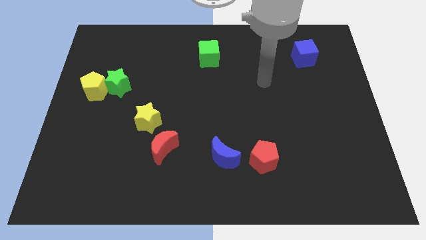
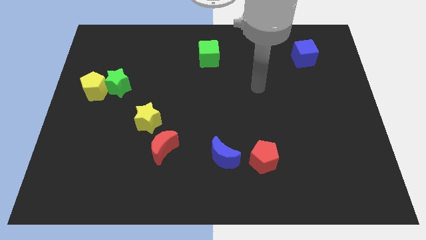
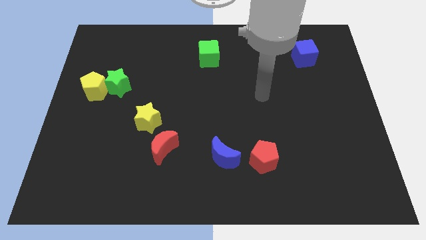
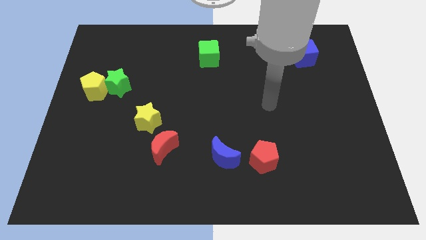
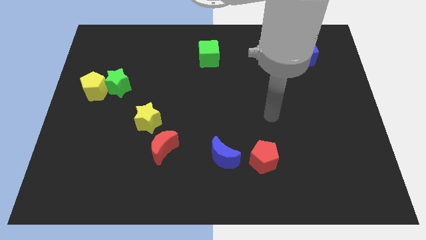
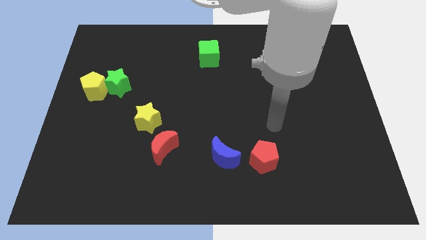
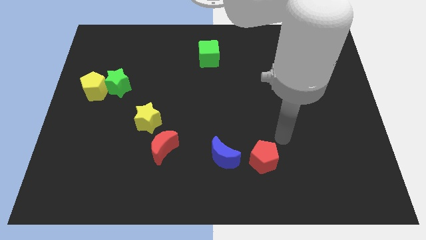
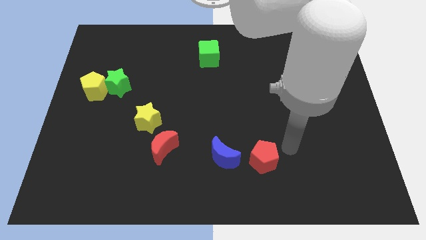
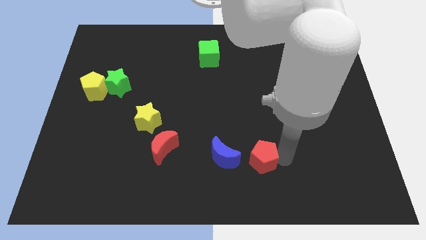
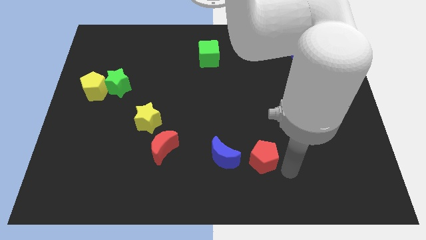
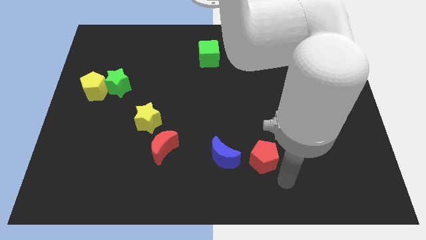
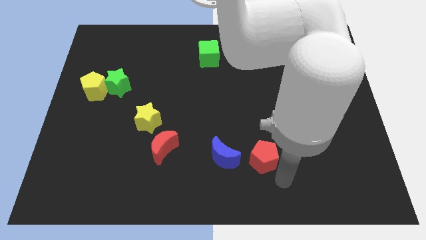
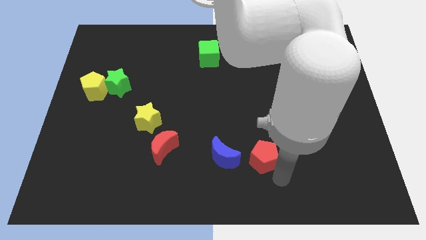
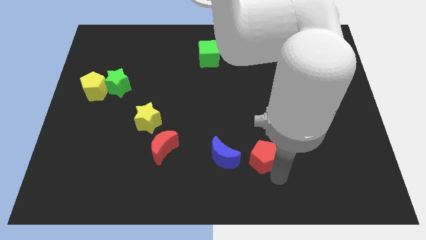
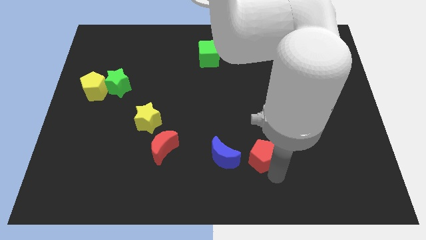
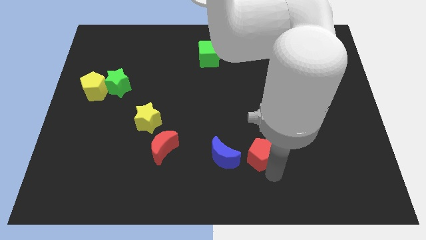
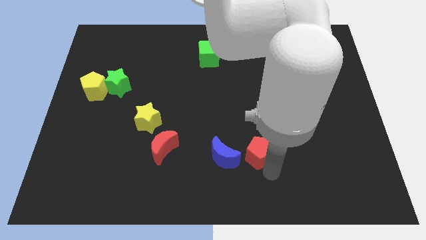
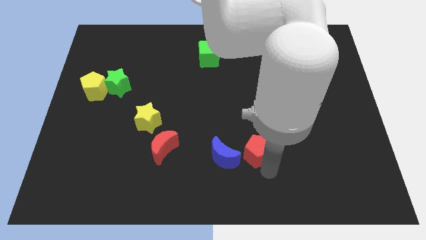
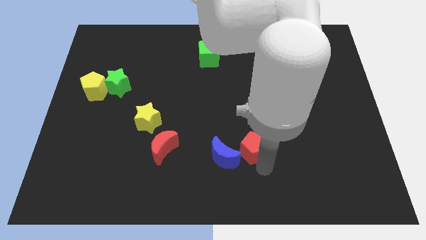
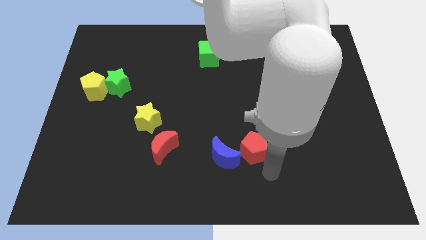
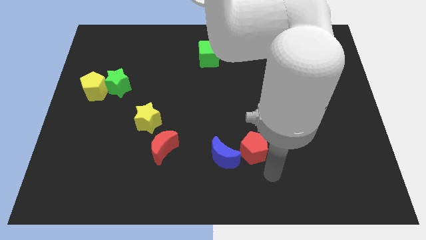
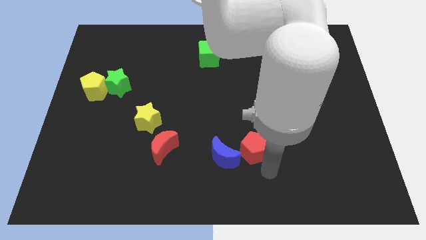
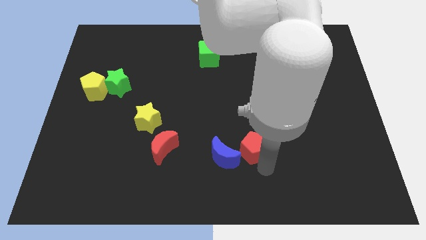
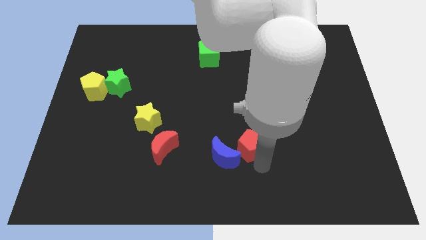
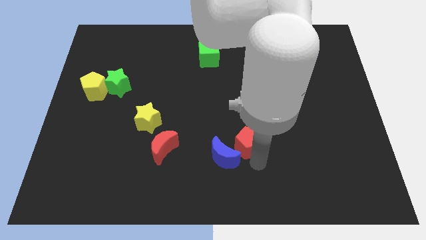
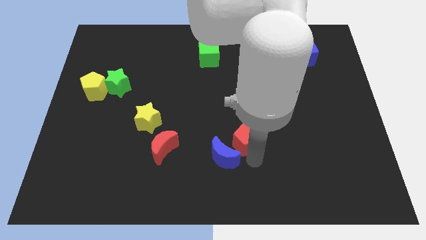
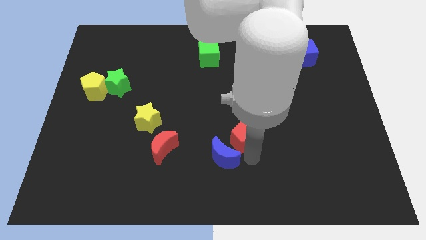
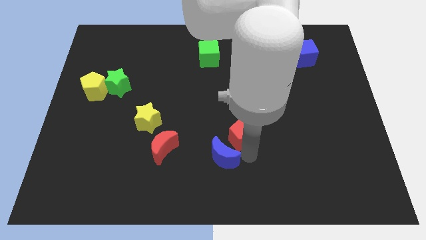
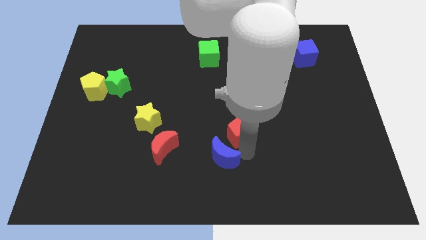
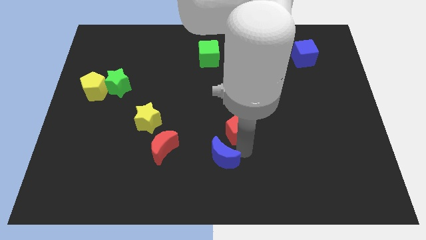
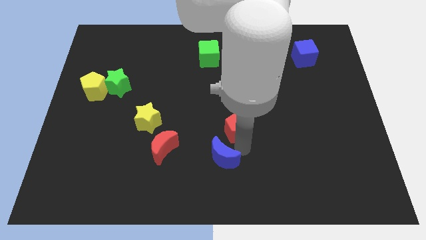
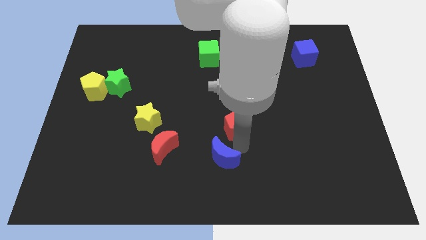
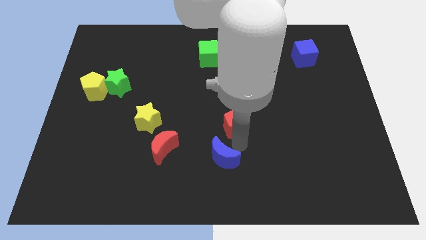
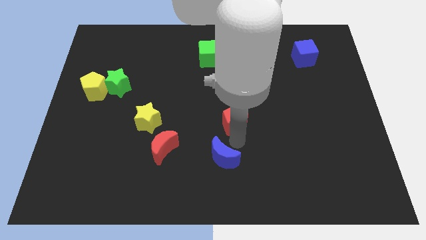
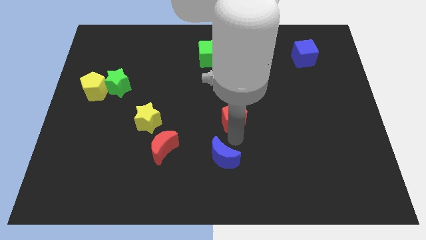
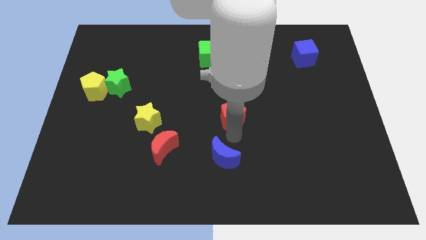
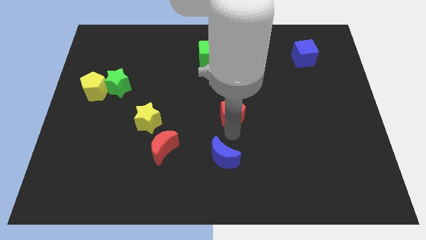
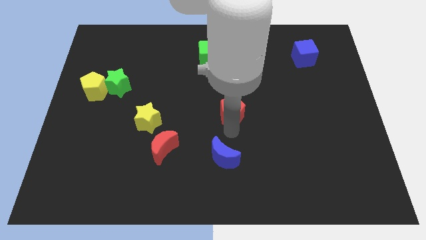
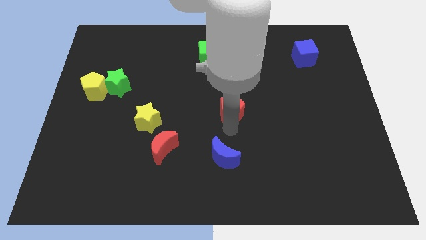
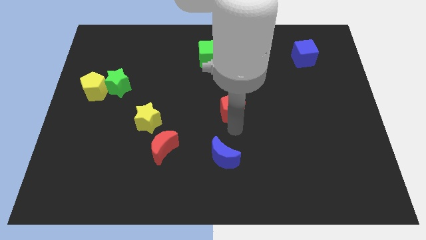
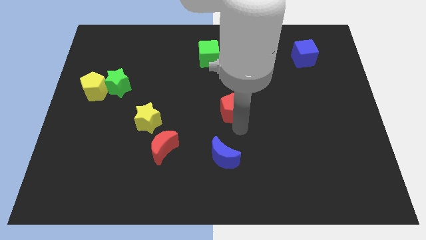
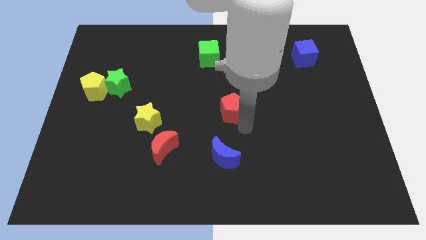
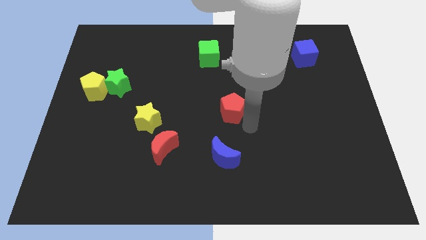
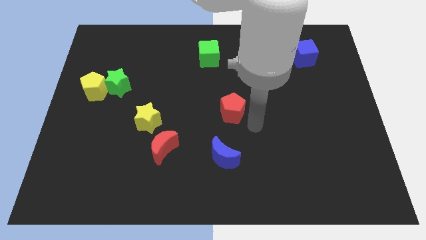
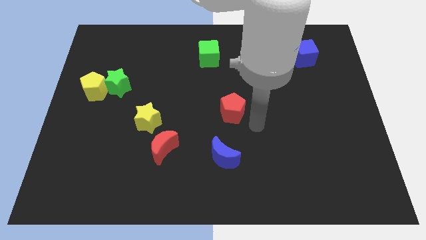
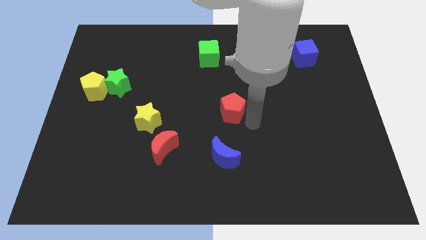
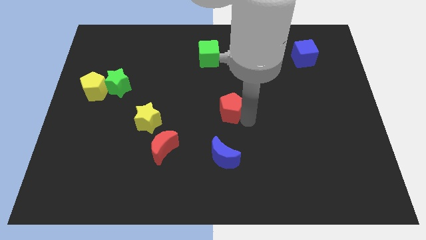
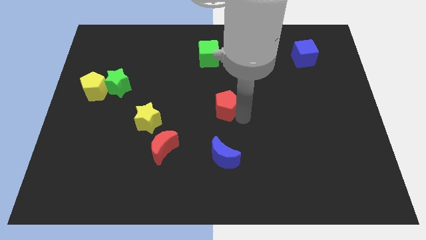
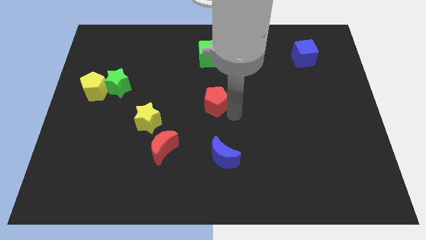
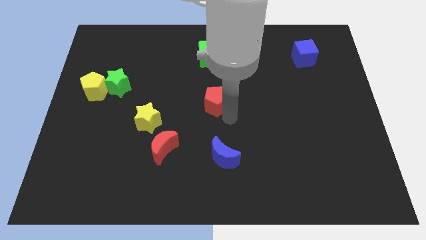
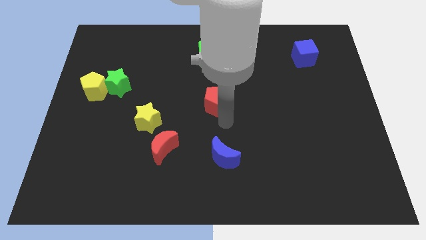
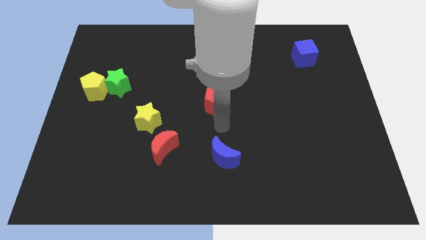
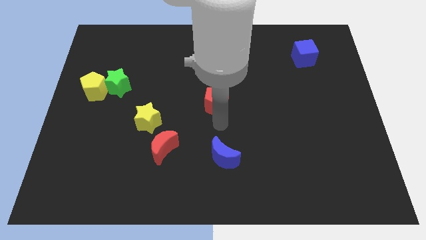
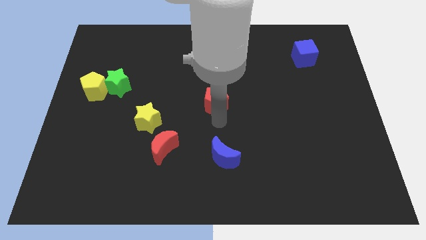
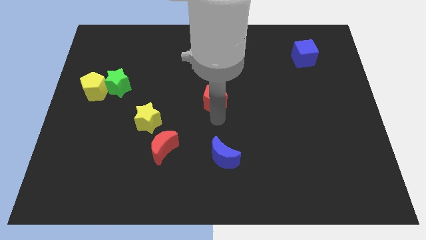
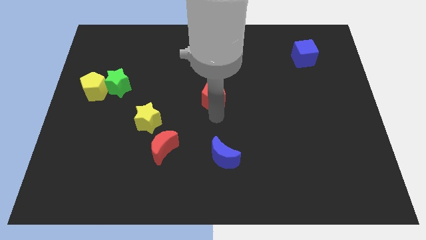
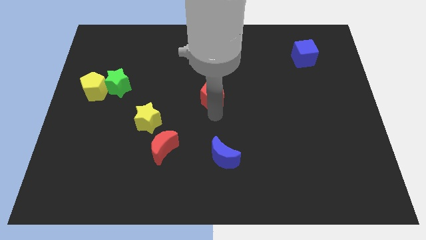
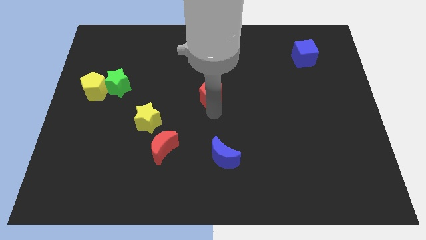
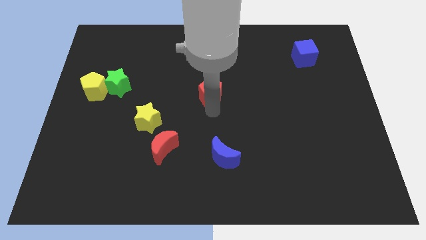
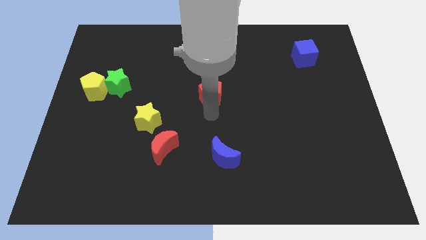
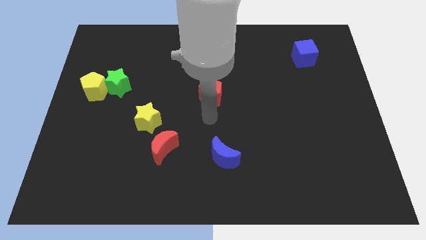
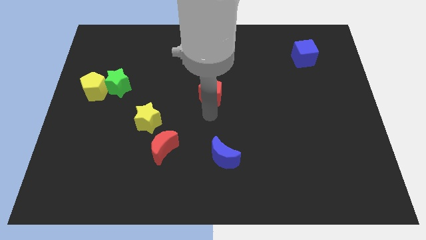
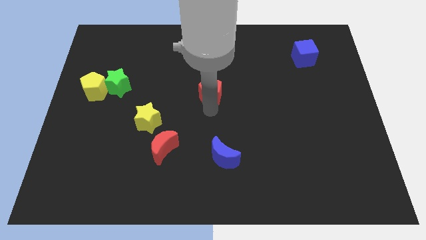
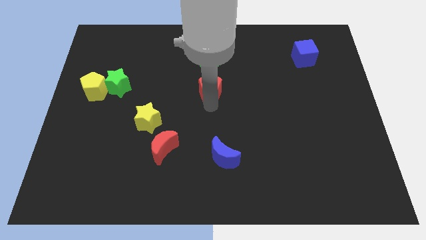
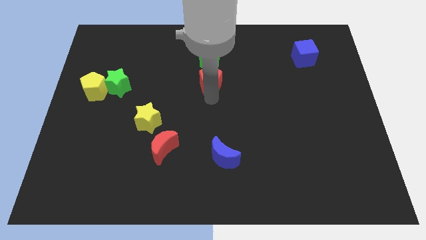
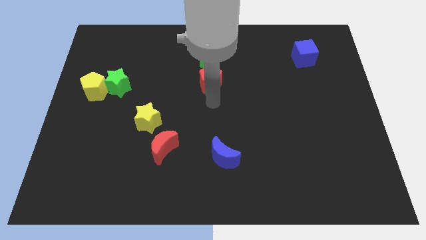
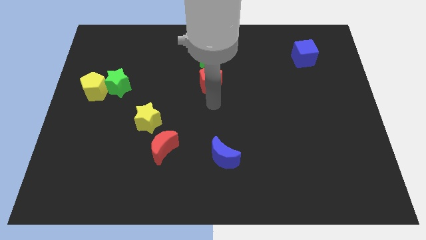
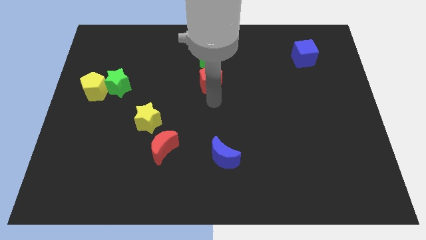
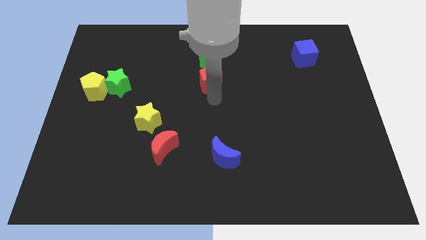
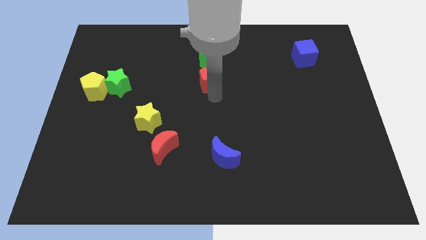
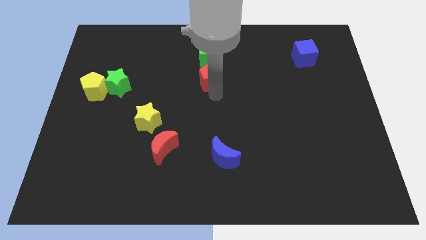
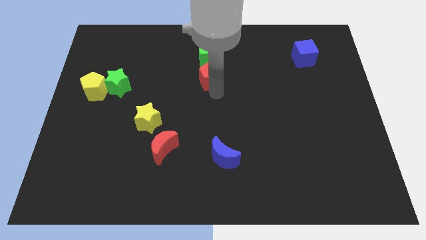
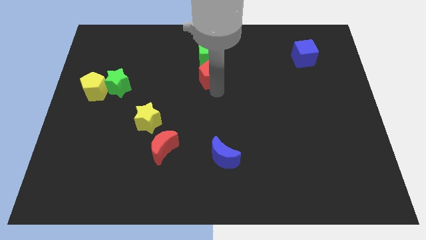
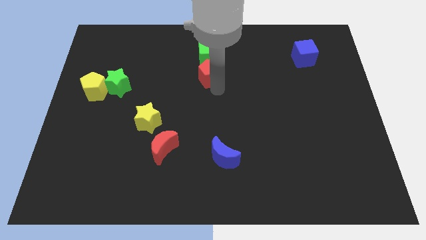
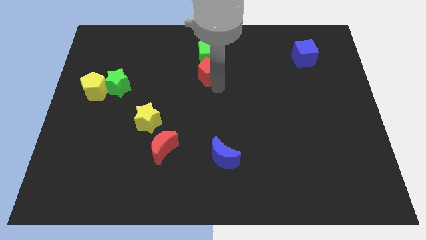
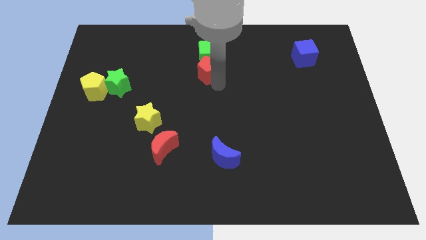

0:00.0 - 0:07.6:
move the red pentagon next to the green cube
